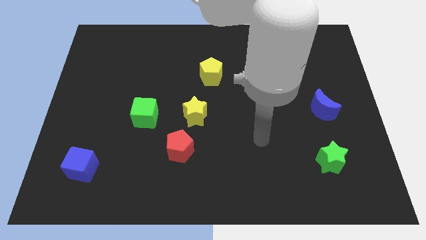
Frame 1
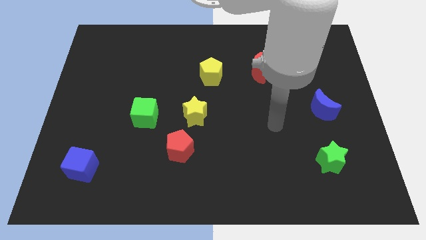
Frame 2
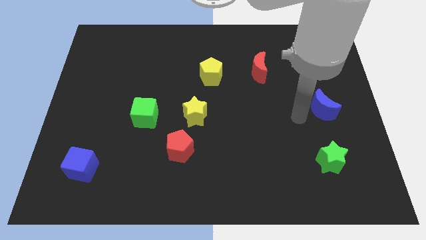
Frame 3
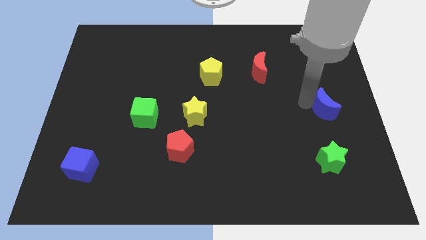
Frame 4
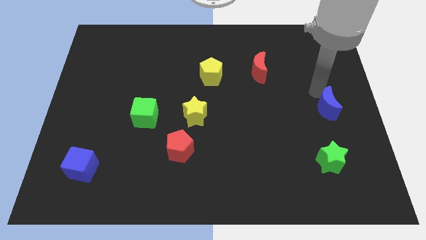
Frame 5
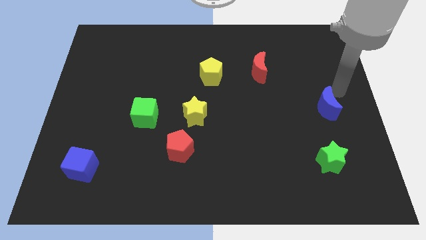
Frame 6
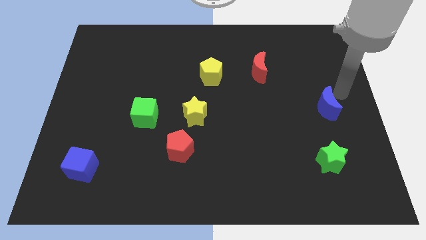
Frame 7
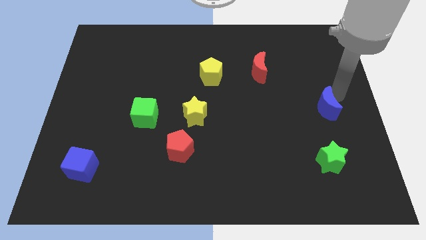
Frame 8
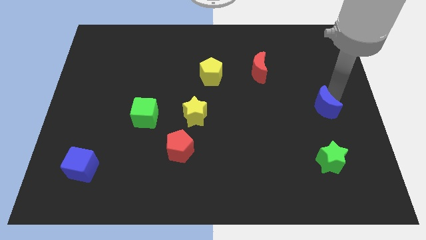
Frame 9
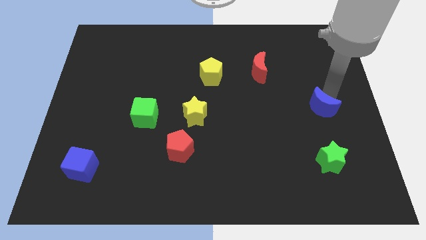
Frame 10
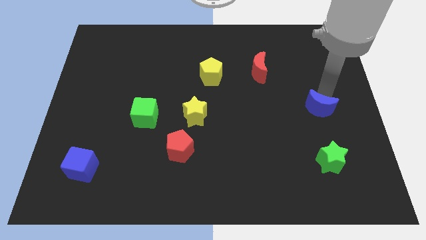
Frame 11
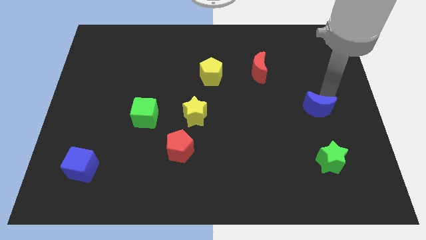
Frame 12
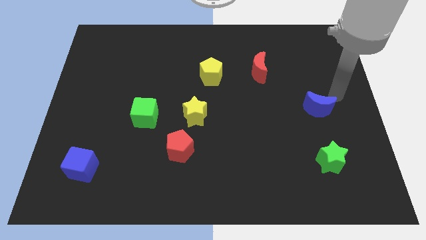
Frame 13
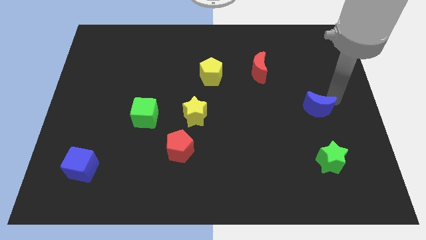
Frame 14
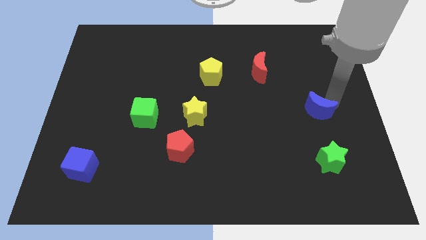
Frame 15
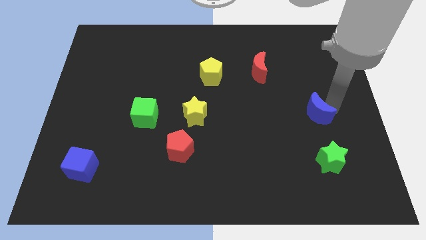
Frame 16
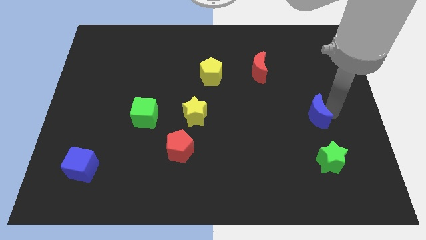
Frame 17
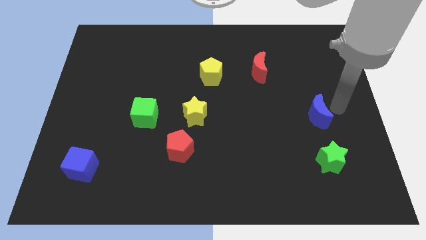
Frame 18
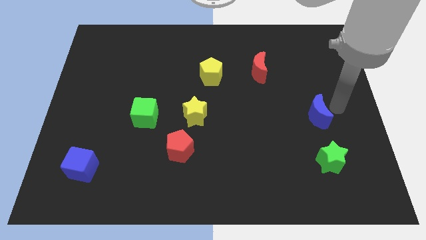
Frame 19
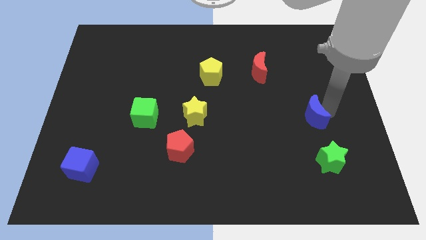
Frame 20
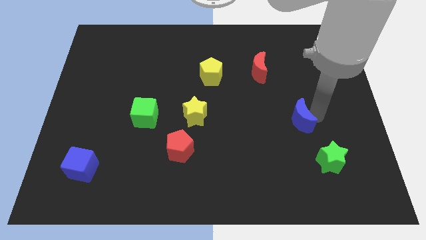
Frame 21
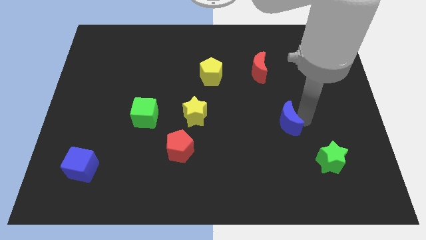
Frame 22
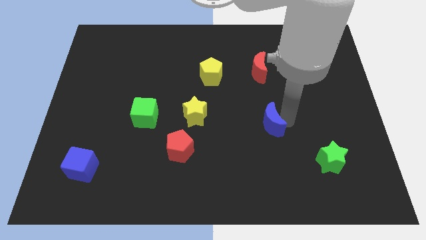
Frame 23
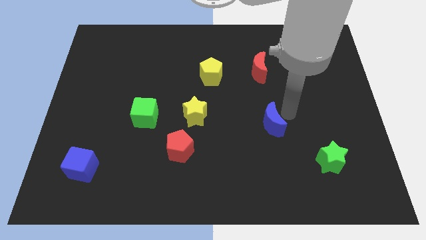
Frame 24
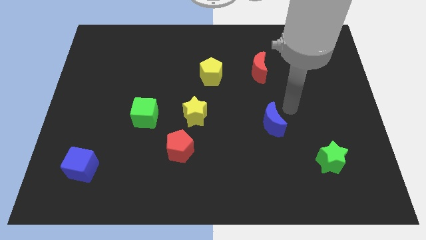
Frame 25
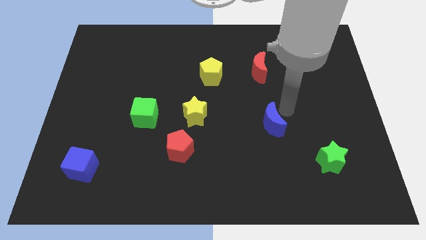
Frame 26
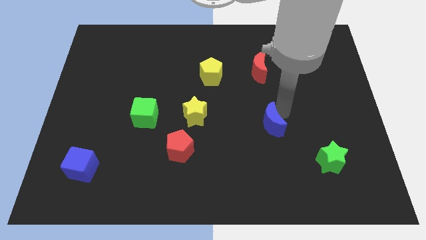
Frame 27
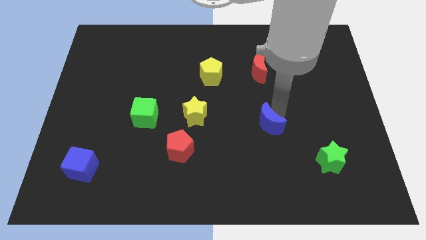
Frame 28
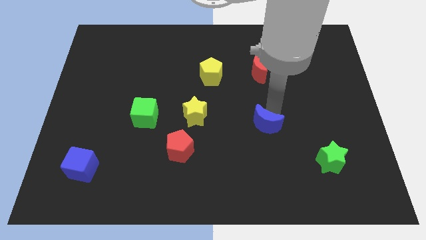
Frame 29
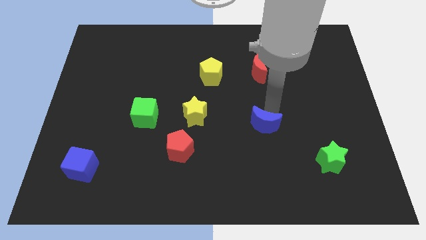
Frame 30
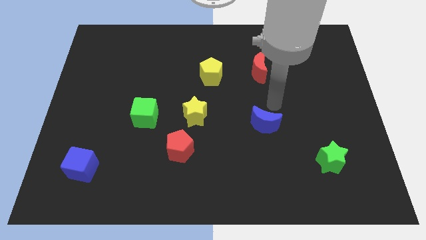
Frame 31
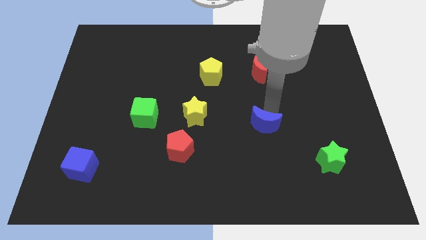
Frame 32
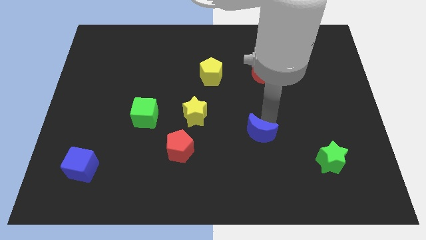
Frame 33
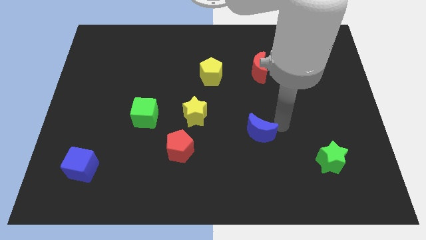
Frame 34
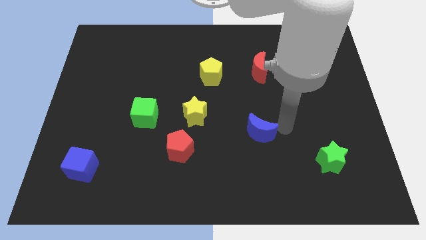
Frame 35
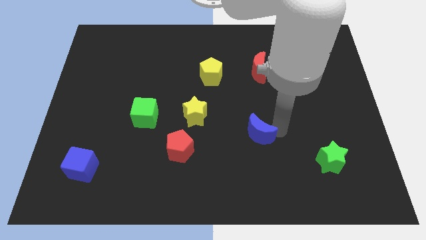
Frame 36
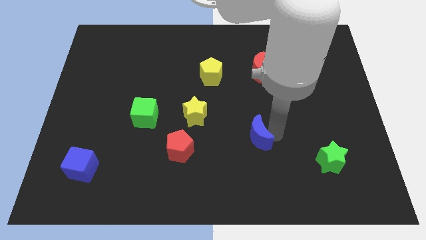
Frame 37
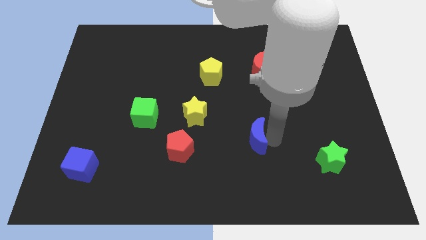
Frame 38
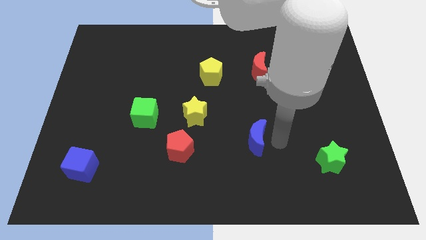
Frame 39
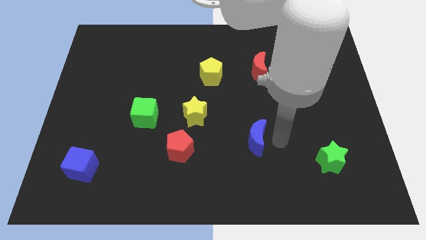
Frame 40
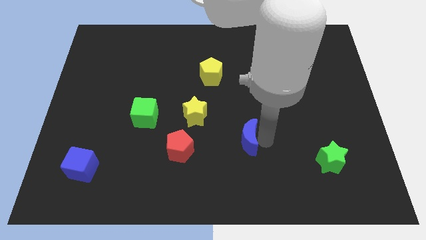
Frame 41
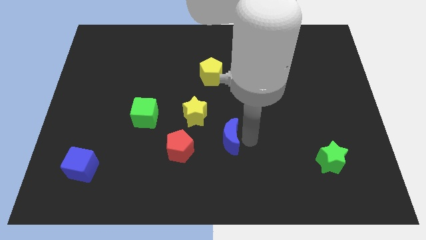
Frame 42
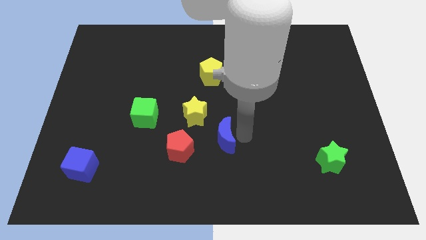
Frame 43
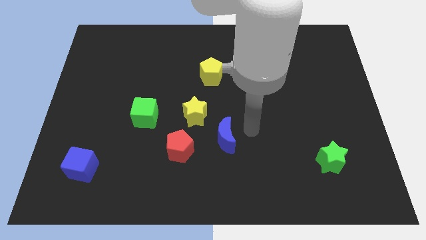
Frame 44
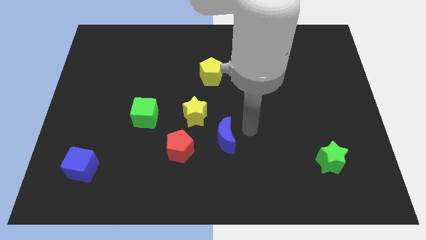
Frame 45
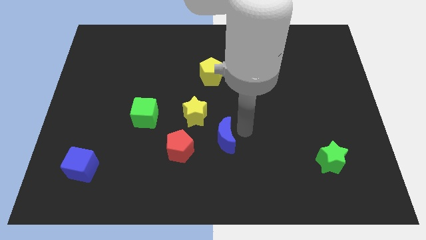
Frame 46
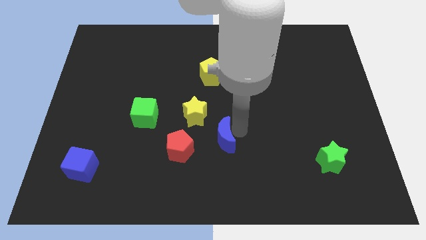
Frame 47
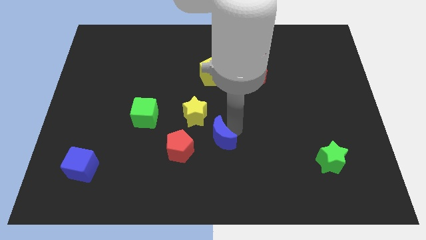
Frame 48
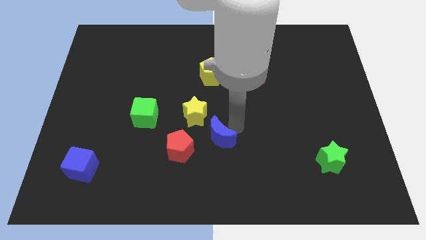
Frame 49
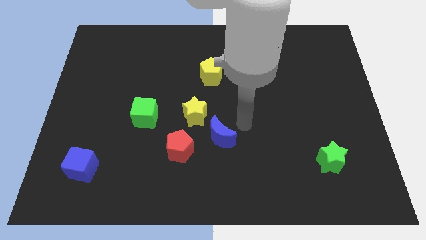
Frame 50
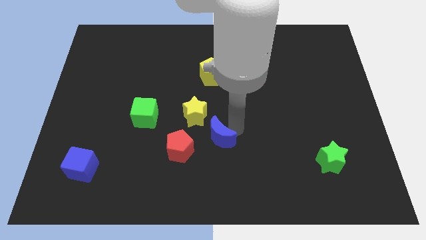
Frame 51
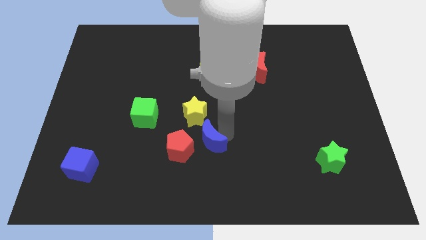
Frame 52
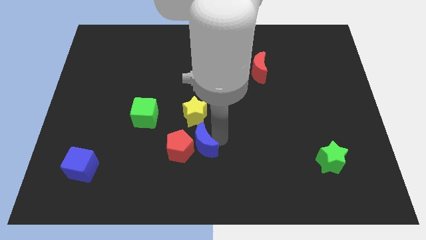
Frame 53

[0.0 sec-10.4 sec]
push the blue moon to the red pentagon

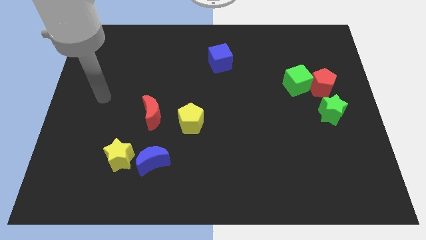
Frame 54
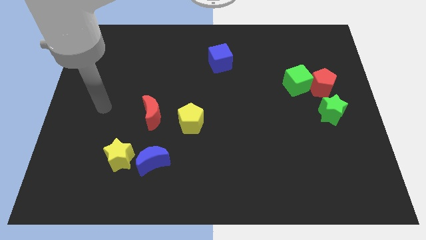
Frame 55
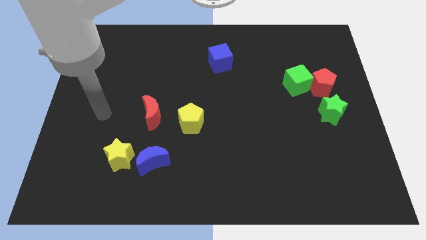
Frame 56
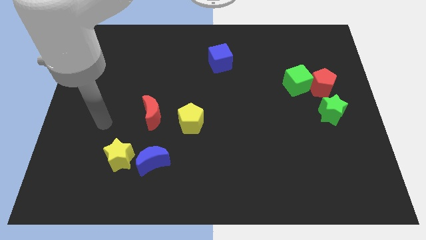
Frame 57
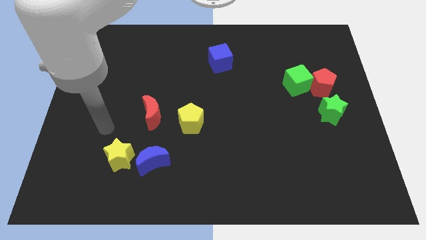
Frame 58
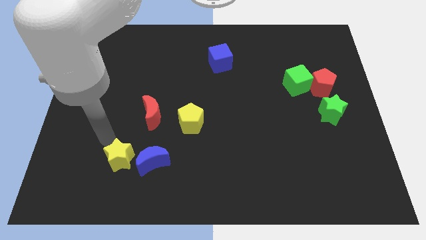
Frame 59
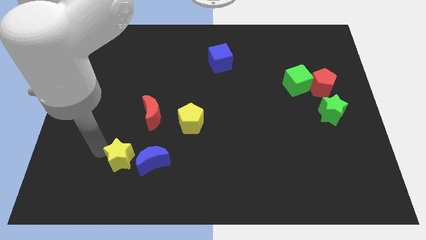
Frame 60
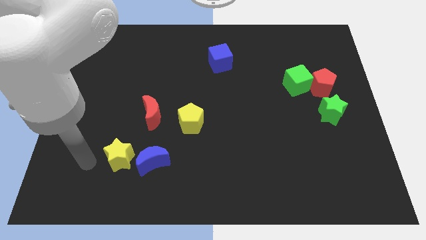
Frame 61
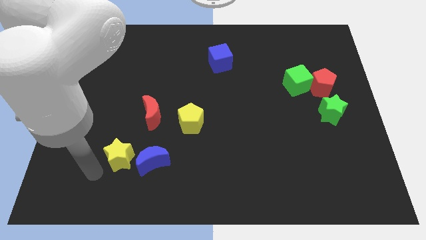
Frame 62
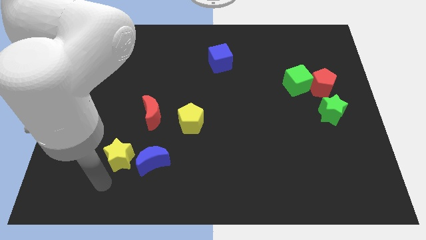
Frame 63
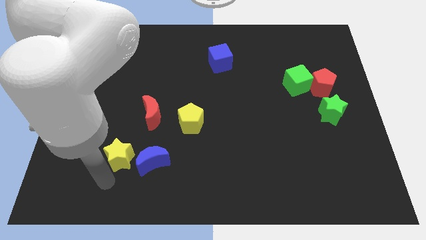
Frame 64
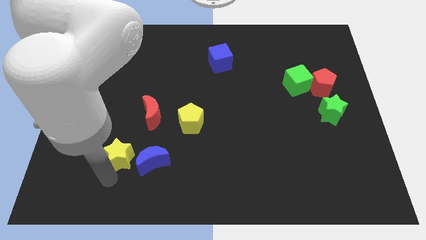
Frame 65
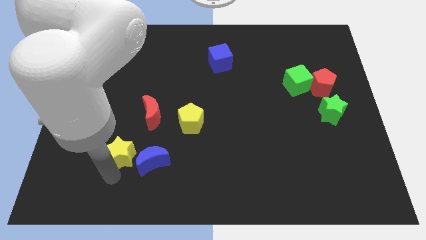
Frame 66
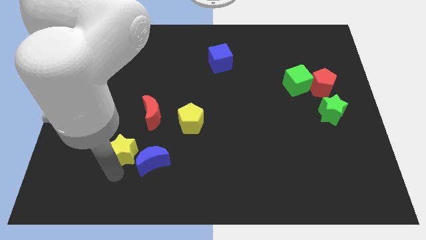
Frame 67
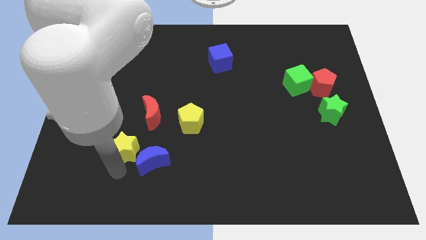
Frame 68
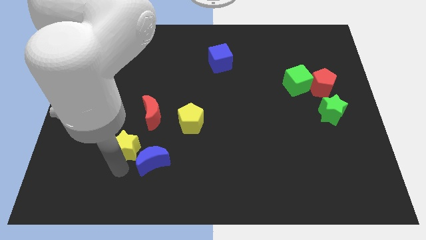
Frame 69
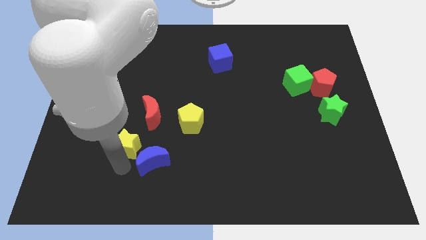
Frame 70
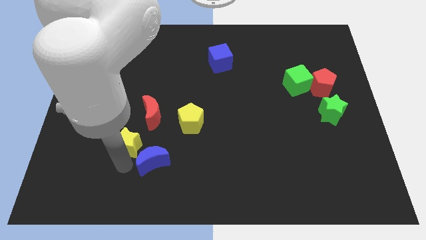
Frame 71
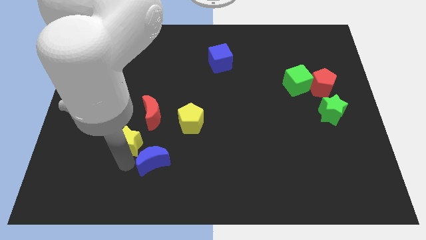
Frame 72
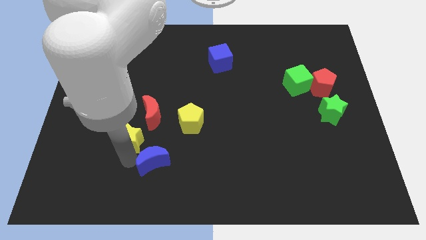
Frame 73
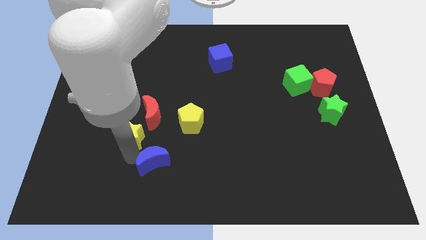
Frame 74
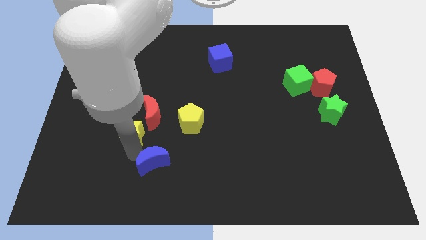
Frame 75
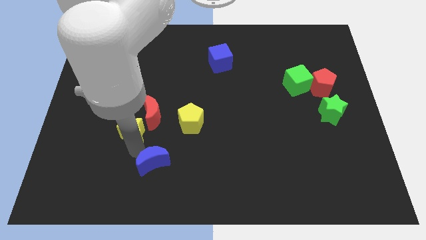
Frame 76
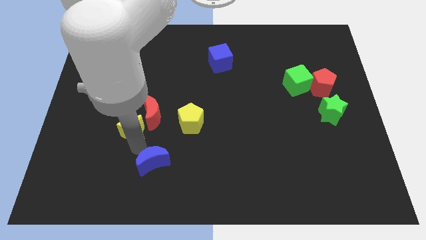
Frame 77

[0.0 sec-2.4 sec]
put the yellow star next to the red moon

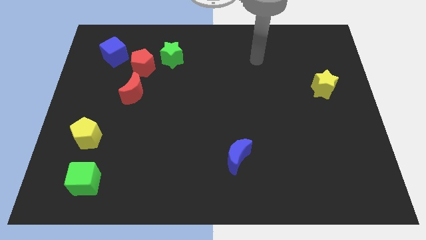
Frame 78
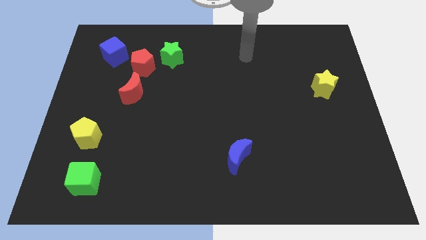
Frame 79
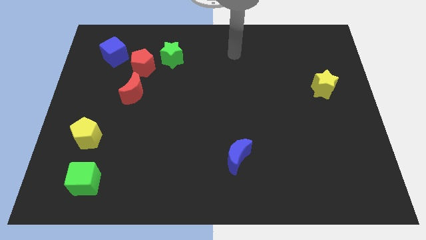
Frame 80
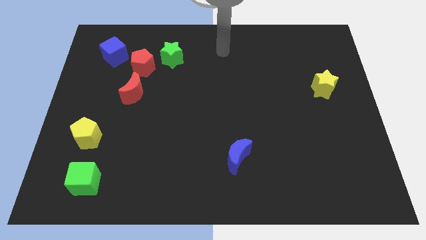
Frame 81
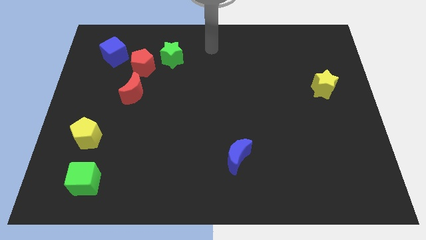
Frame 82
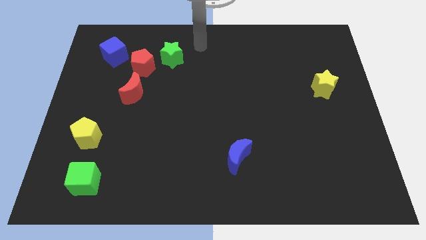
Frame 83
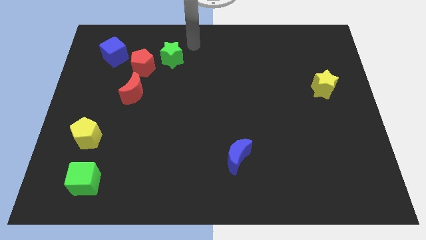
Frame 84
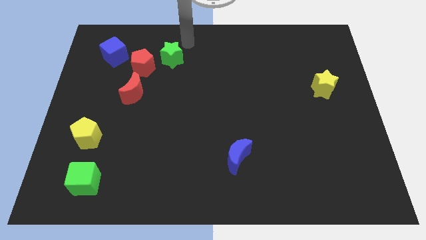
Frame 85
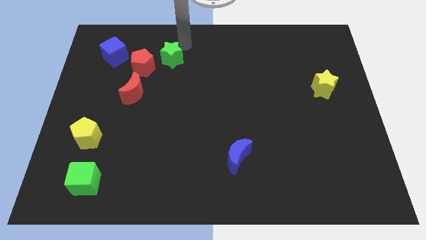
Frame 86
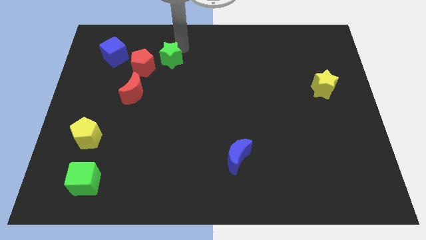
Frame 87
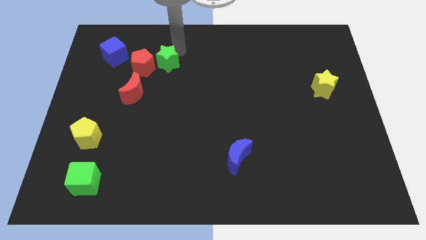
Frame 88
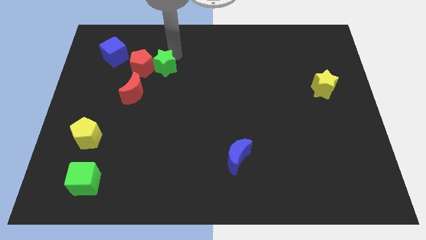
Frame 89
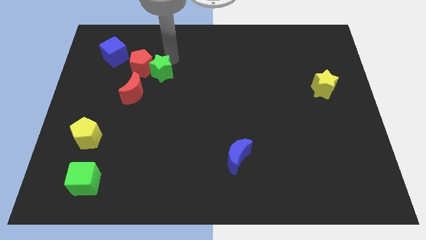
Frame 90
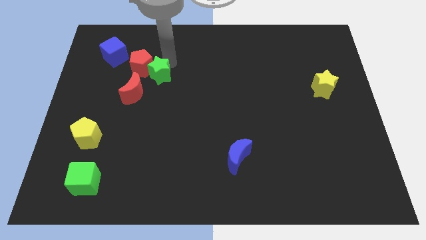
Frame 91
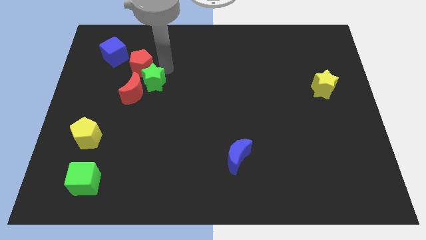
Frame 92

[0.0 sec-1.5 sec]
put the green star next to the red moon
